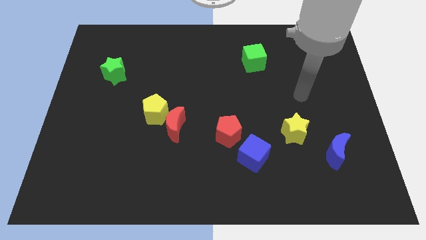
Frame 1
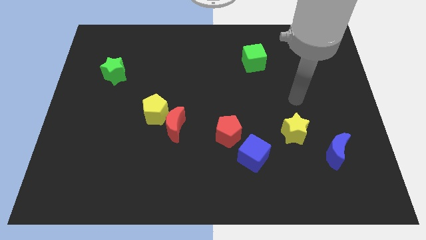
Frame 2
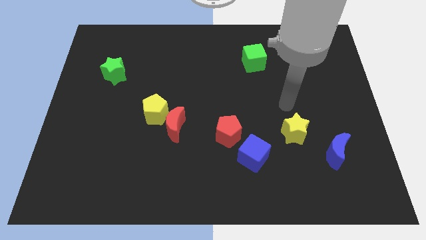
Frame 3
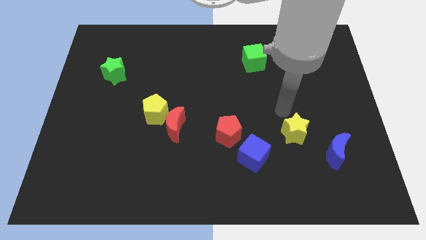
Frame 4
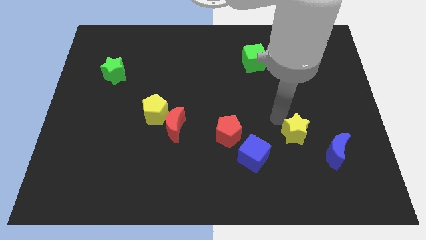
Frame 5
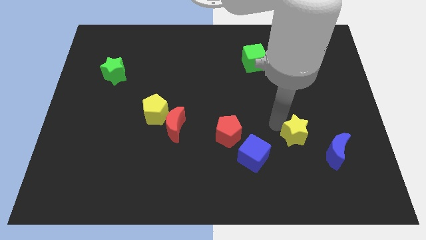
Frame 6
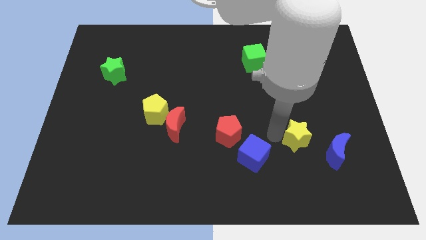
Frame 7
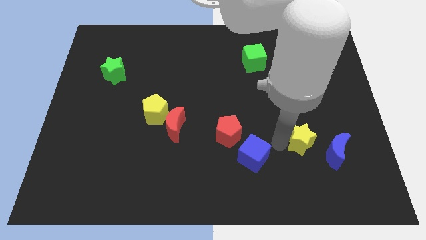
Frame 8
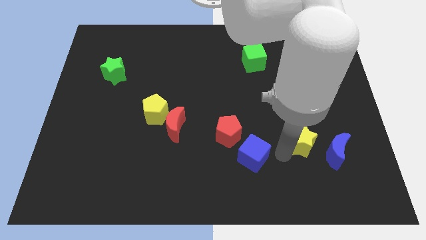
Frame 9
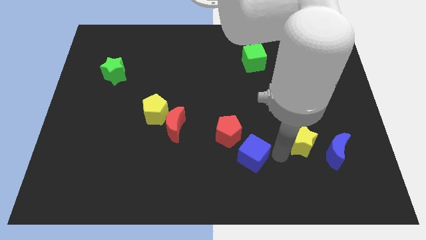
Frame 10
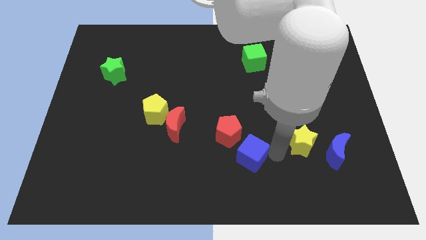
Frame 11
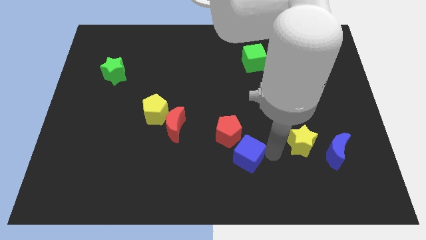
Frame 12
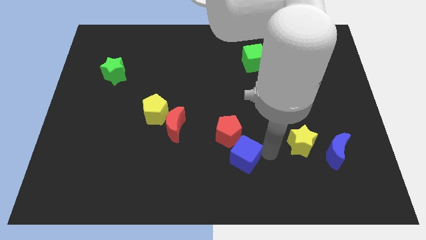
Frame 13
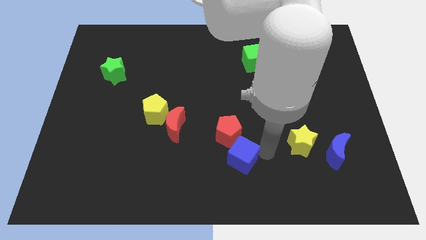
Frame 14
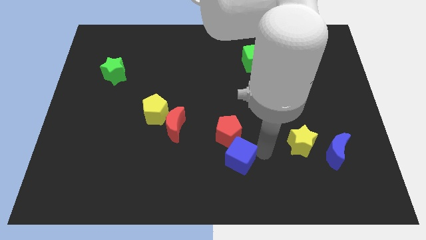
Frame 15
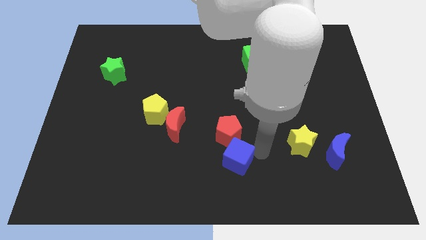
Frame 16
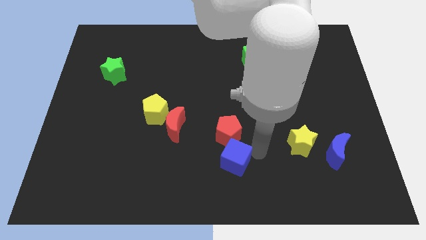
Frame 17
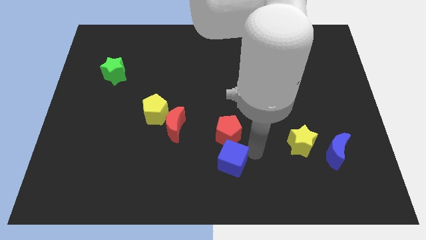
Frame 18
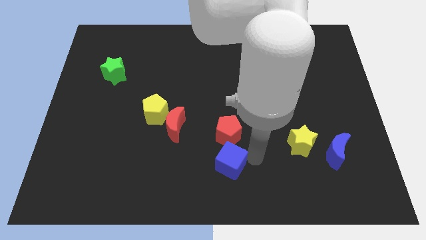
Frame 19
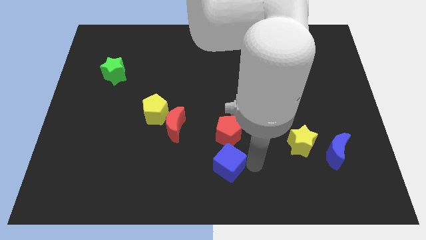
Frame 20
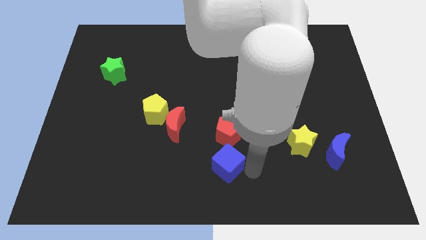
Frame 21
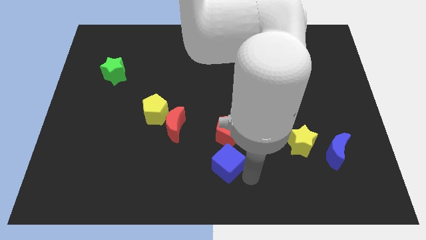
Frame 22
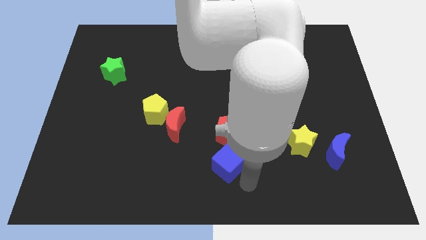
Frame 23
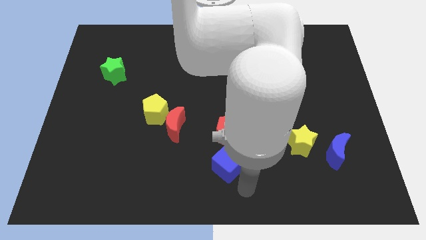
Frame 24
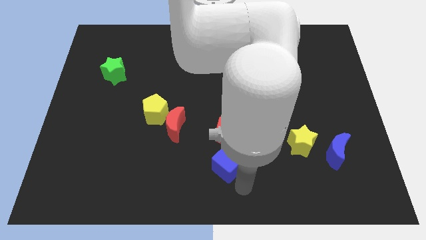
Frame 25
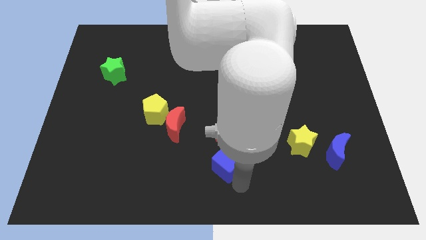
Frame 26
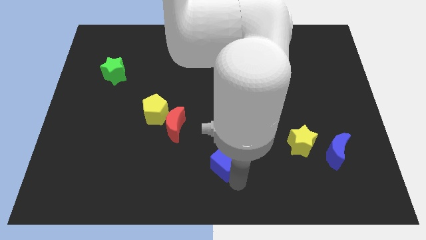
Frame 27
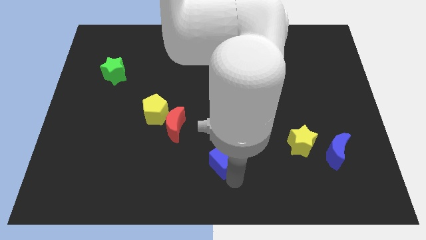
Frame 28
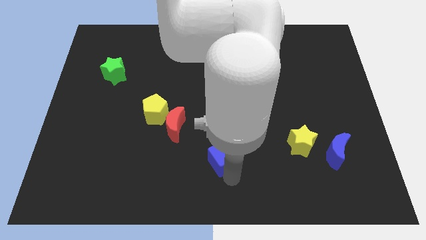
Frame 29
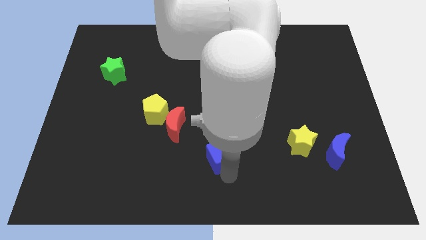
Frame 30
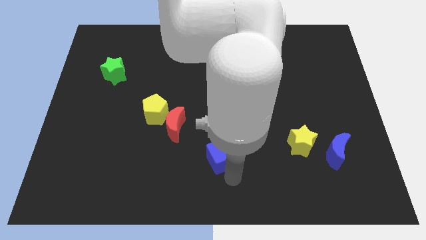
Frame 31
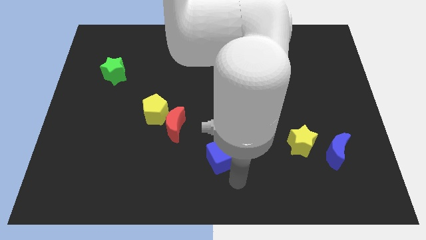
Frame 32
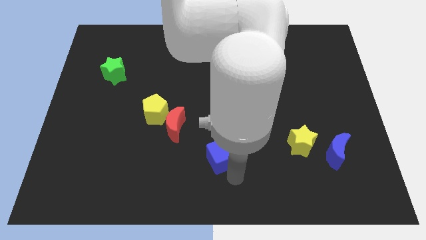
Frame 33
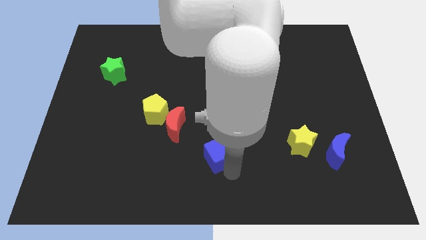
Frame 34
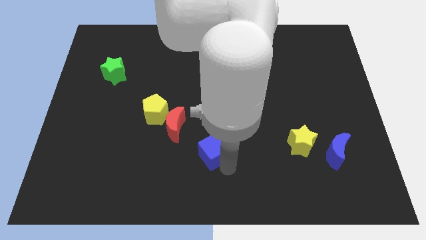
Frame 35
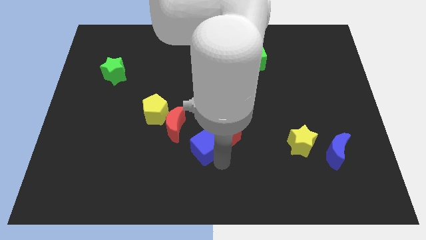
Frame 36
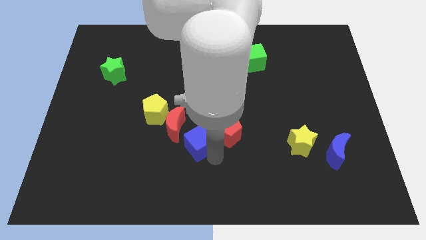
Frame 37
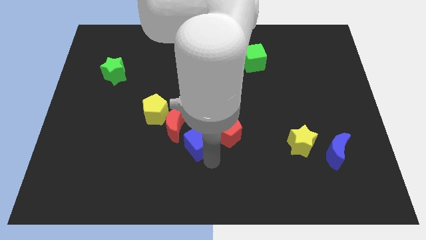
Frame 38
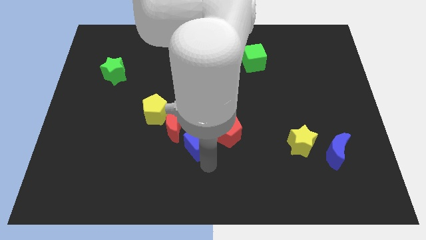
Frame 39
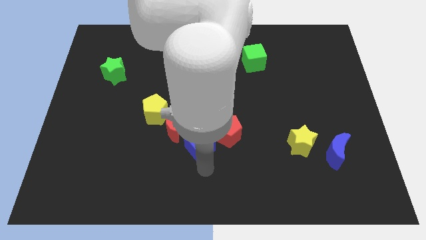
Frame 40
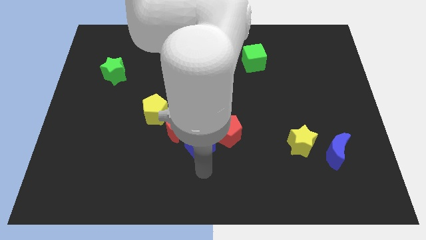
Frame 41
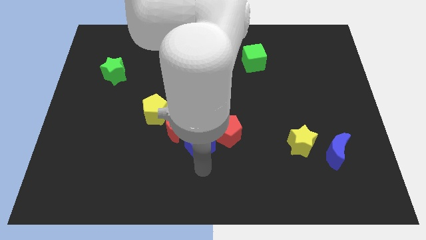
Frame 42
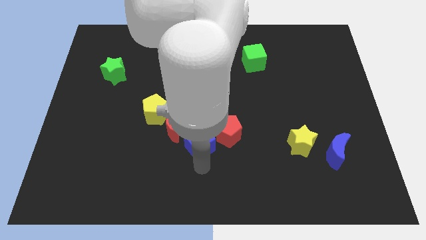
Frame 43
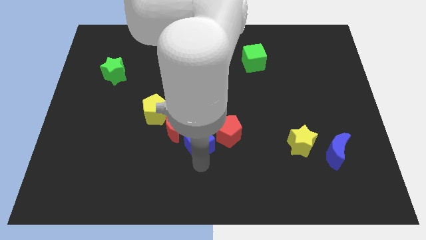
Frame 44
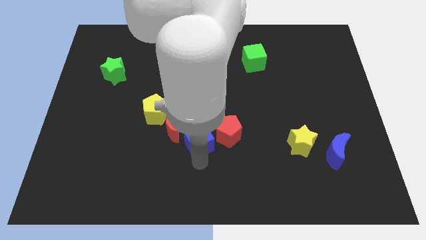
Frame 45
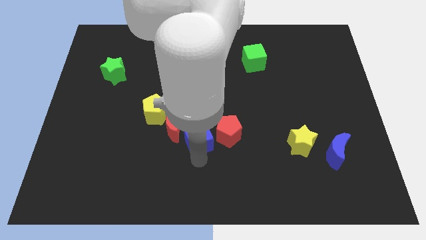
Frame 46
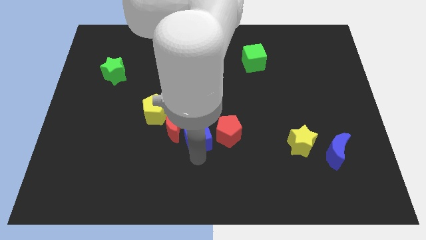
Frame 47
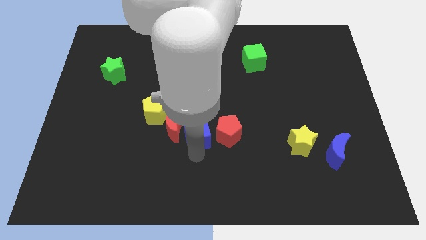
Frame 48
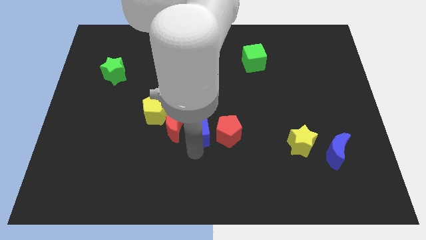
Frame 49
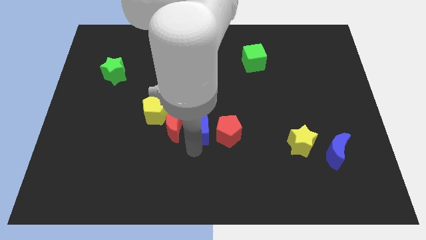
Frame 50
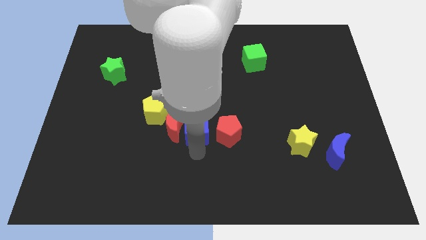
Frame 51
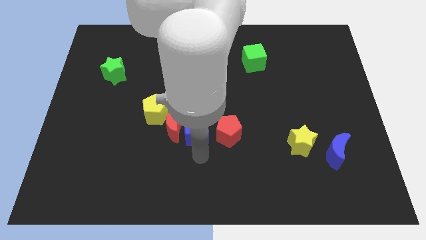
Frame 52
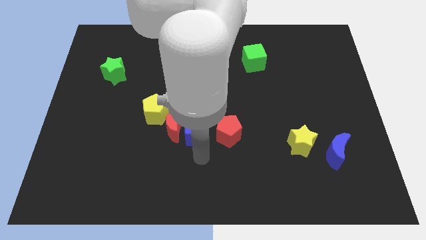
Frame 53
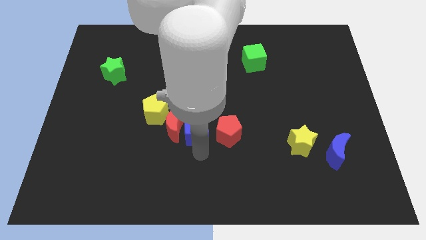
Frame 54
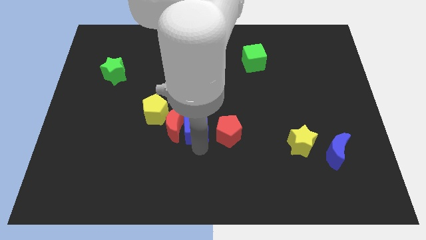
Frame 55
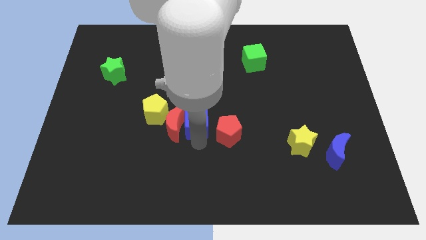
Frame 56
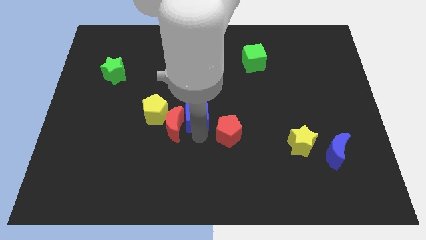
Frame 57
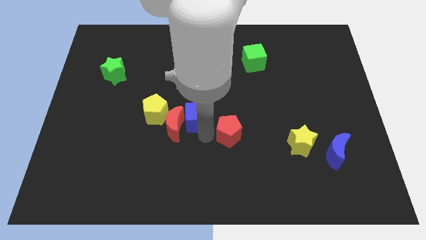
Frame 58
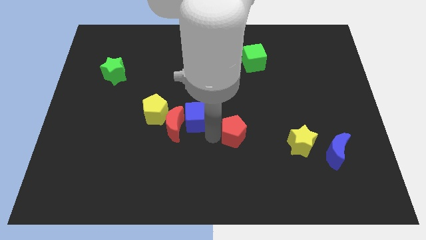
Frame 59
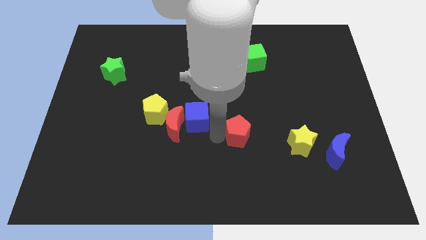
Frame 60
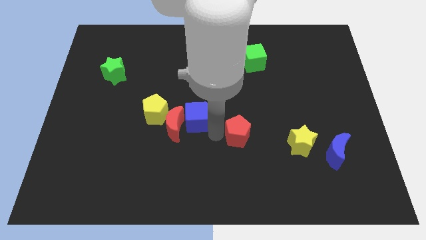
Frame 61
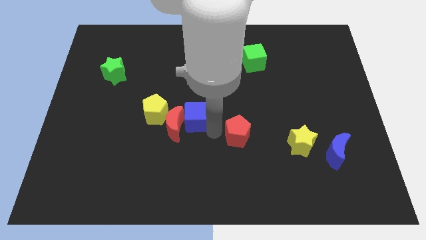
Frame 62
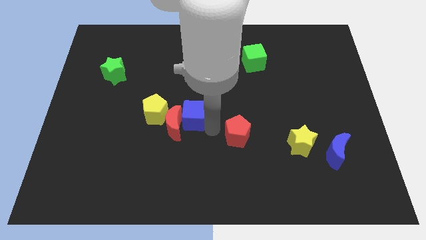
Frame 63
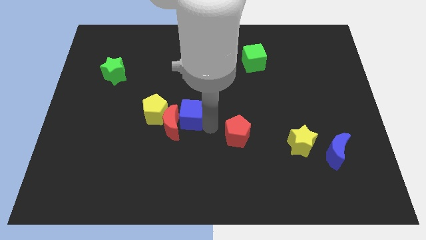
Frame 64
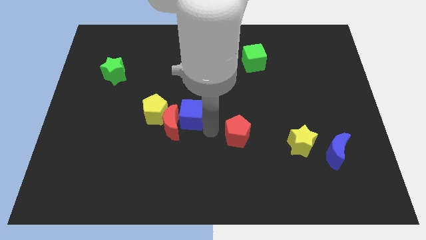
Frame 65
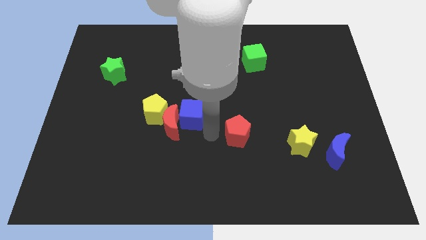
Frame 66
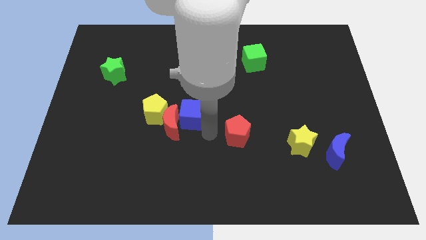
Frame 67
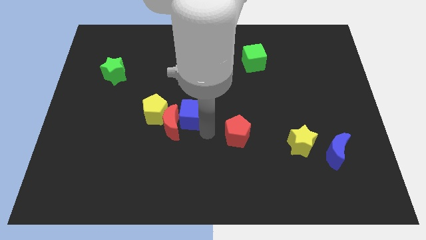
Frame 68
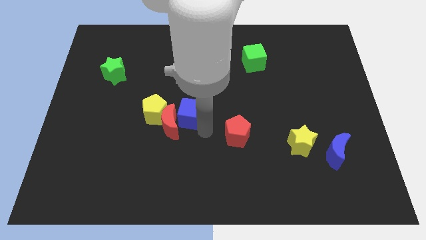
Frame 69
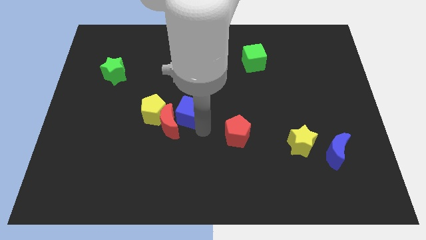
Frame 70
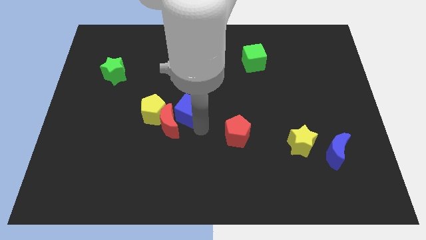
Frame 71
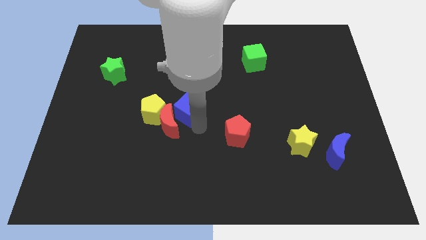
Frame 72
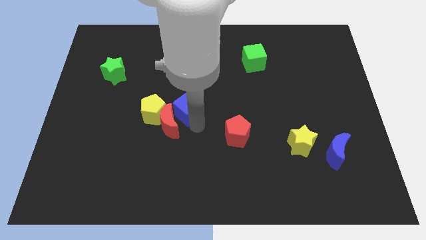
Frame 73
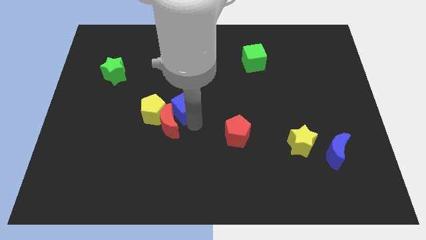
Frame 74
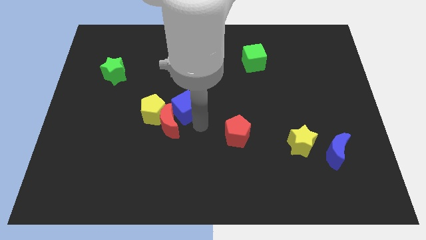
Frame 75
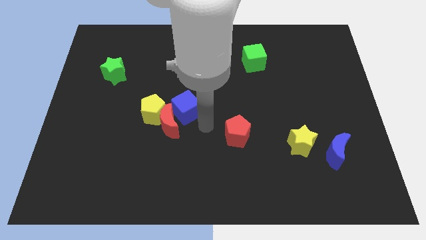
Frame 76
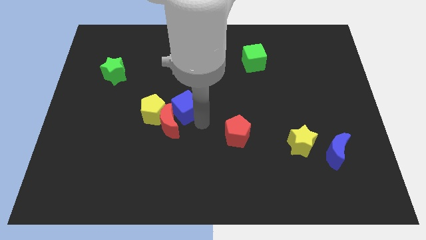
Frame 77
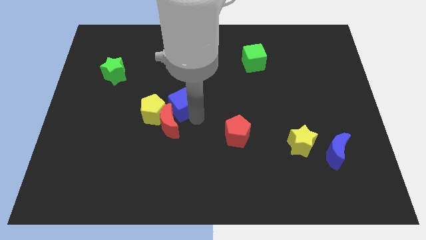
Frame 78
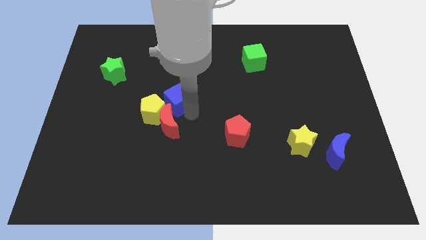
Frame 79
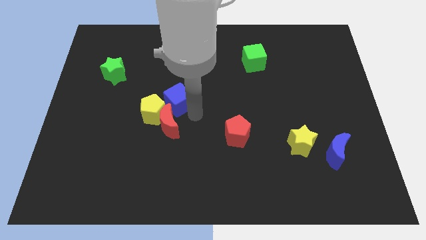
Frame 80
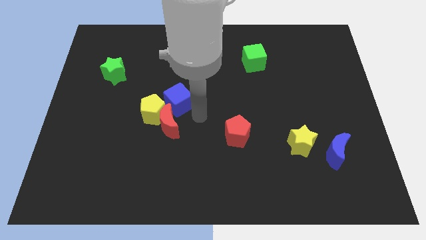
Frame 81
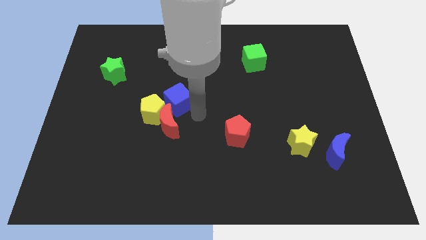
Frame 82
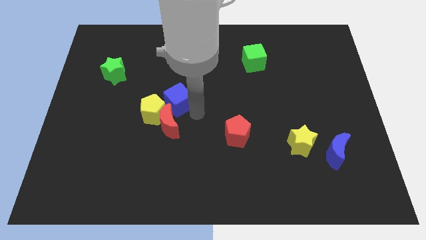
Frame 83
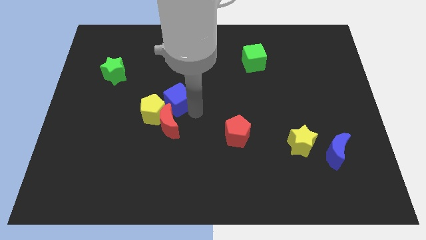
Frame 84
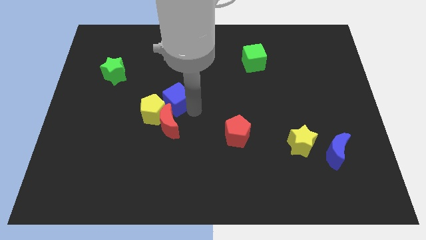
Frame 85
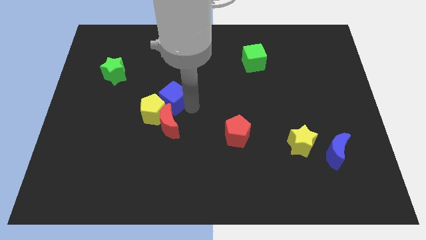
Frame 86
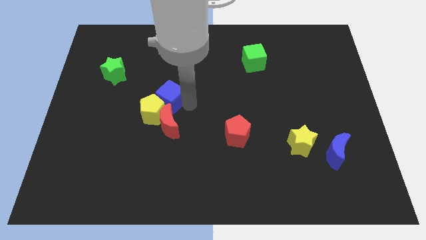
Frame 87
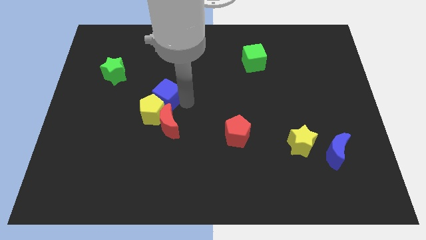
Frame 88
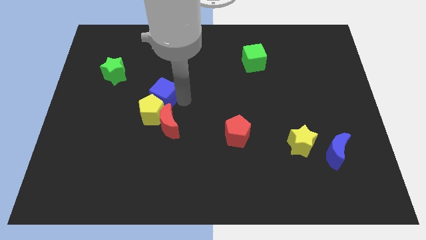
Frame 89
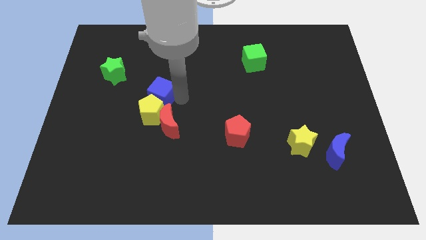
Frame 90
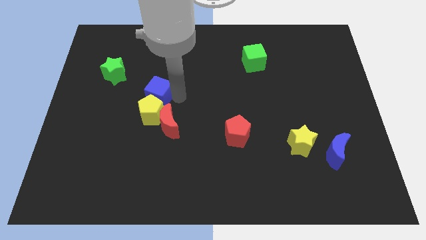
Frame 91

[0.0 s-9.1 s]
slide the blue cube to the top left of the yellow pentagon
